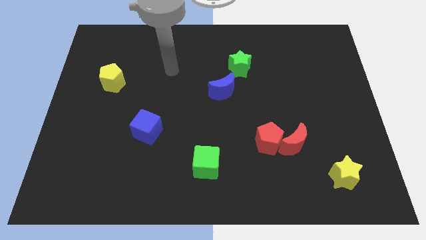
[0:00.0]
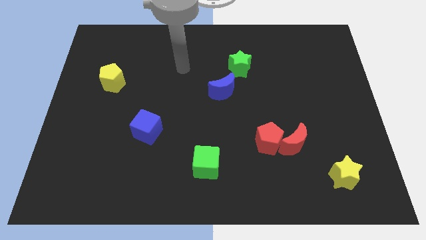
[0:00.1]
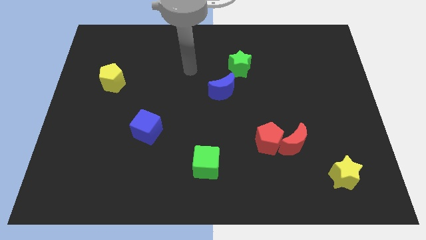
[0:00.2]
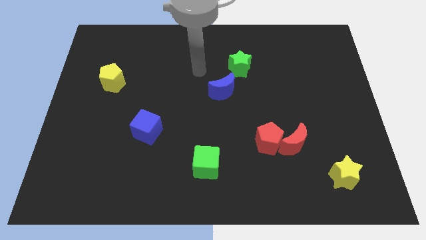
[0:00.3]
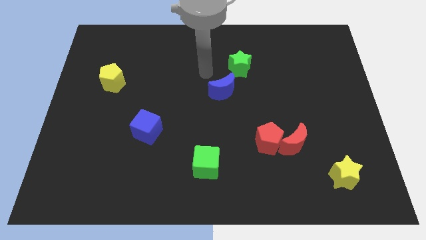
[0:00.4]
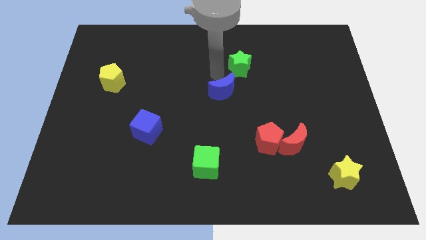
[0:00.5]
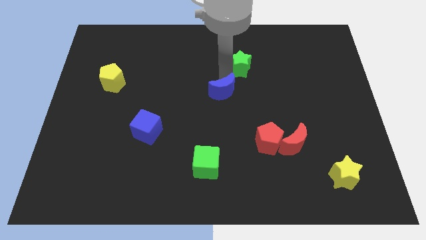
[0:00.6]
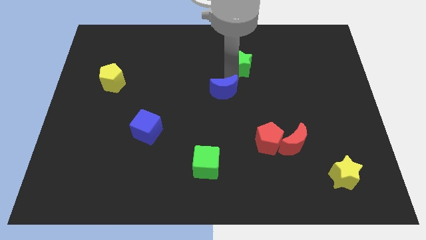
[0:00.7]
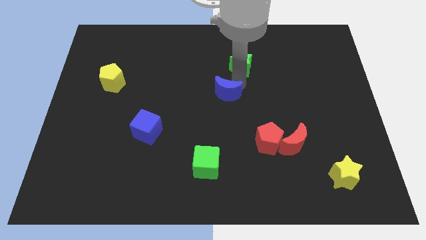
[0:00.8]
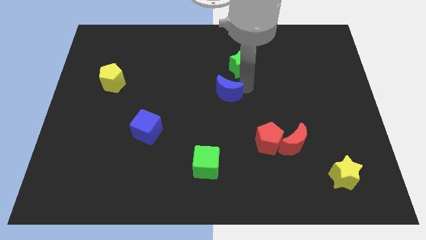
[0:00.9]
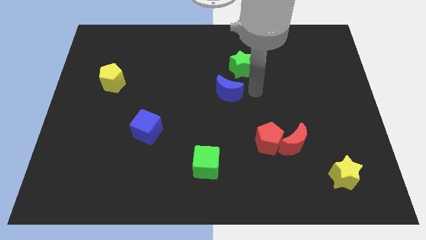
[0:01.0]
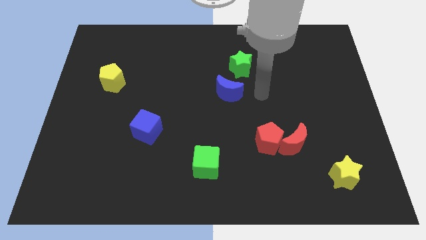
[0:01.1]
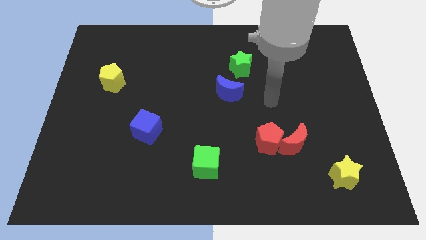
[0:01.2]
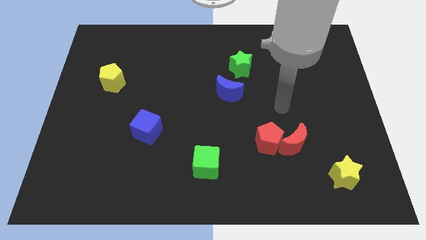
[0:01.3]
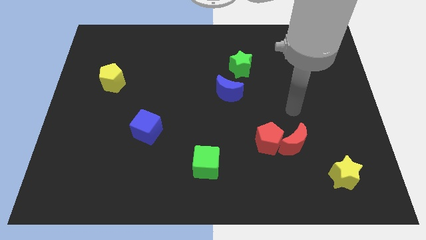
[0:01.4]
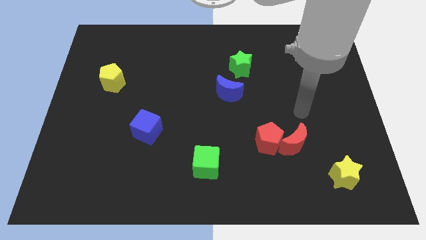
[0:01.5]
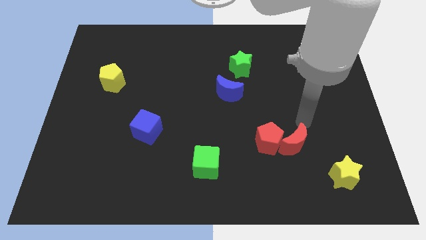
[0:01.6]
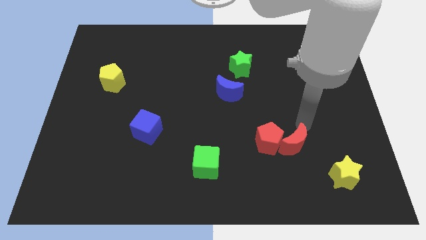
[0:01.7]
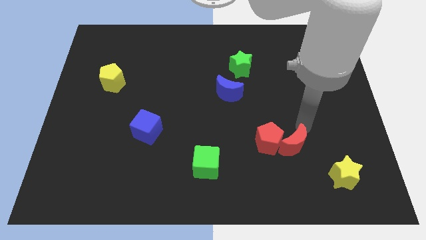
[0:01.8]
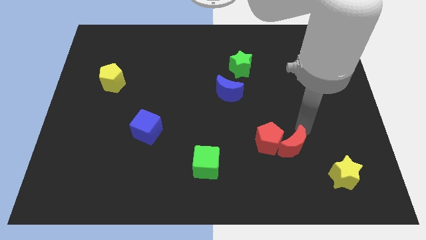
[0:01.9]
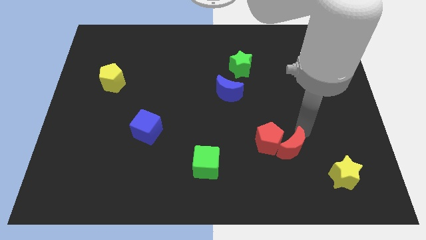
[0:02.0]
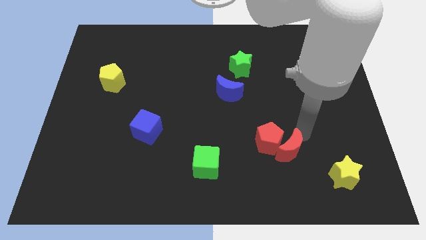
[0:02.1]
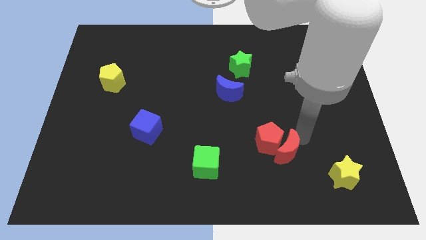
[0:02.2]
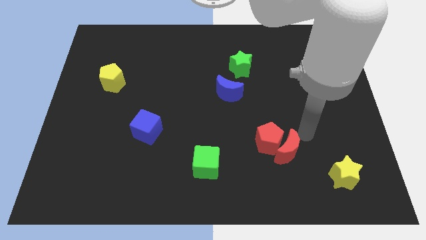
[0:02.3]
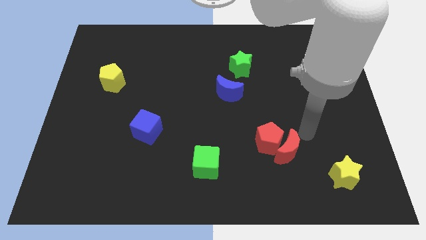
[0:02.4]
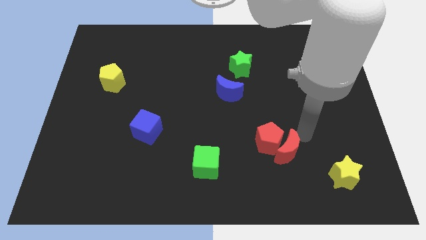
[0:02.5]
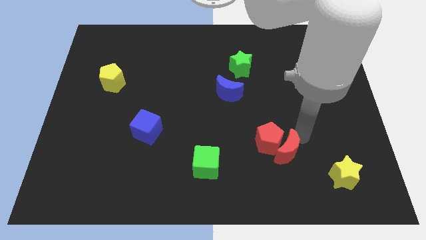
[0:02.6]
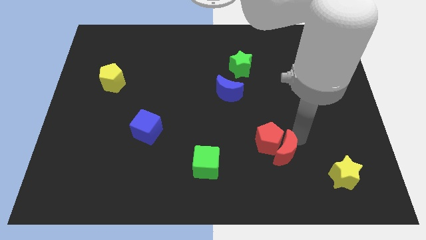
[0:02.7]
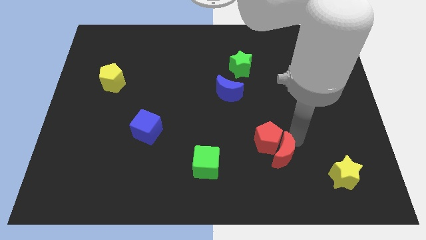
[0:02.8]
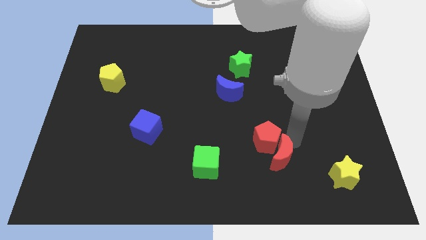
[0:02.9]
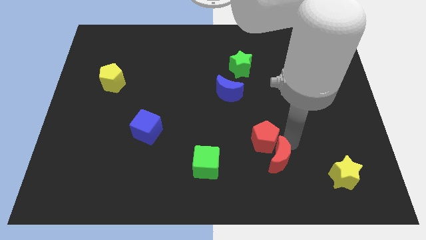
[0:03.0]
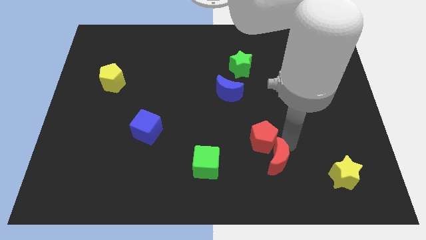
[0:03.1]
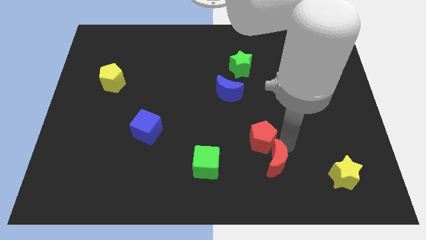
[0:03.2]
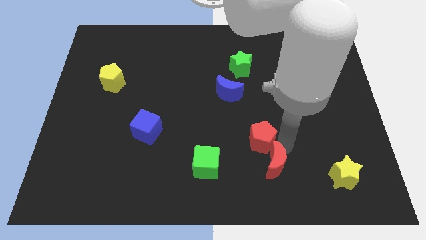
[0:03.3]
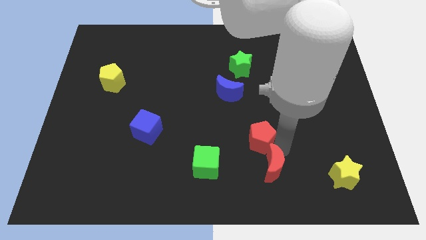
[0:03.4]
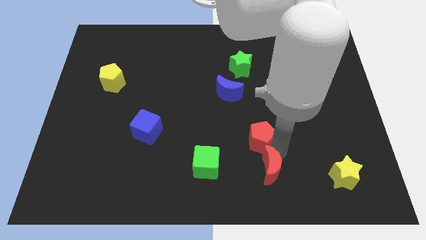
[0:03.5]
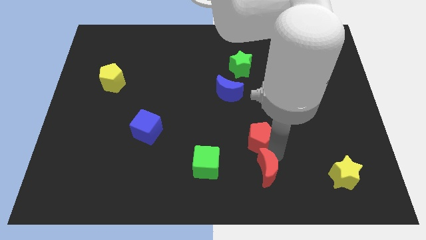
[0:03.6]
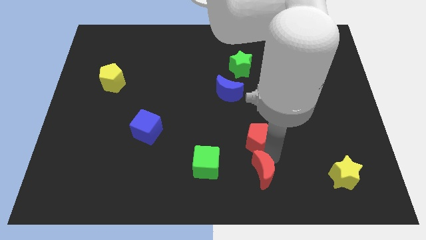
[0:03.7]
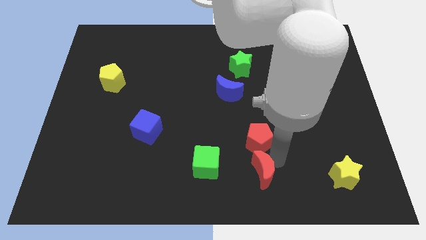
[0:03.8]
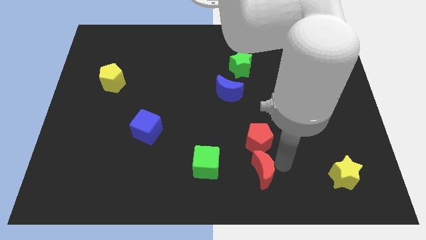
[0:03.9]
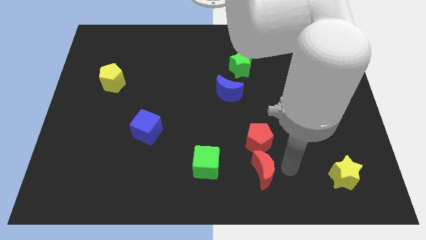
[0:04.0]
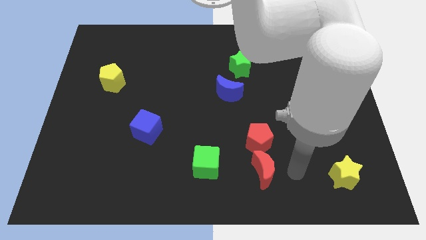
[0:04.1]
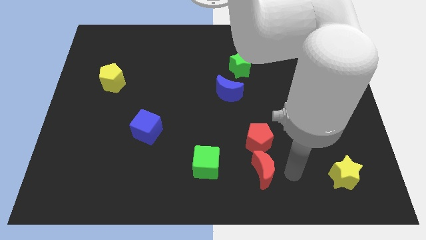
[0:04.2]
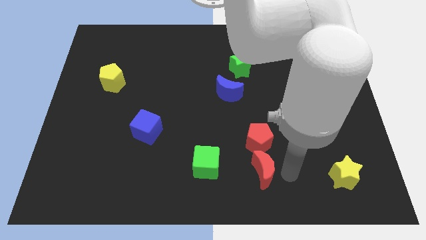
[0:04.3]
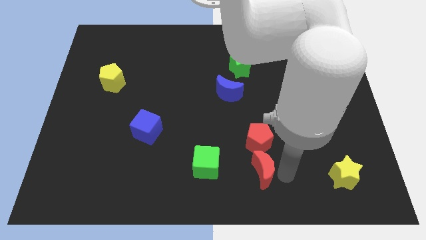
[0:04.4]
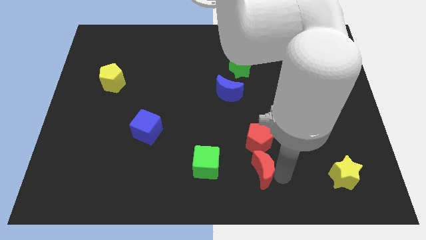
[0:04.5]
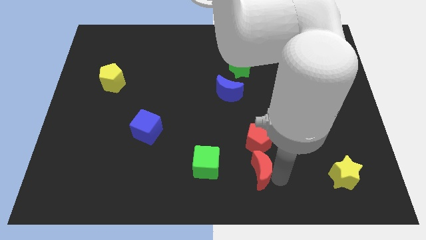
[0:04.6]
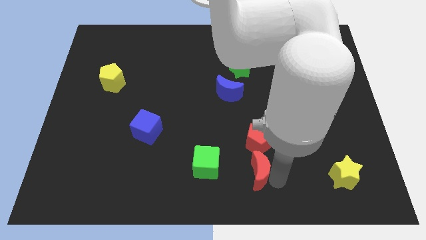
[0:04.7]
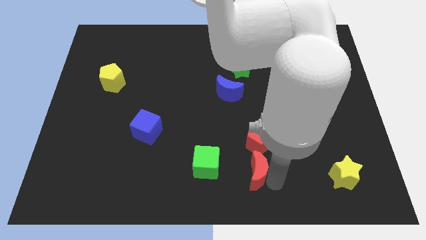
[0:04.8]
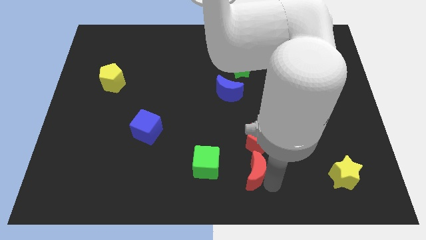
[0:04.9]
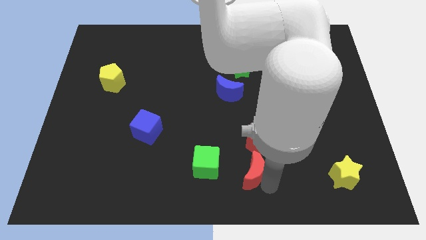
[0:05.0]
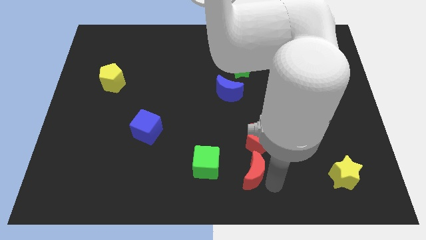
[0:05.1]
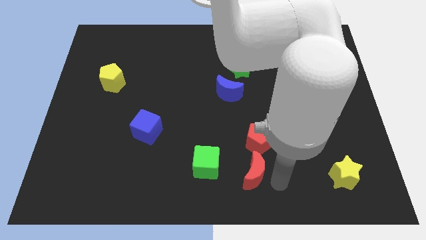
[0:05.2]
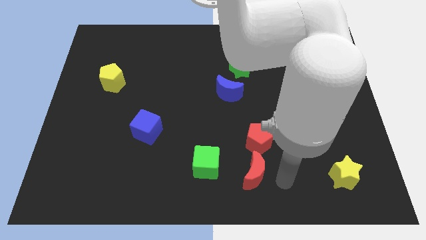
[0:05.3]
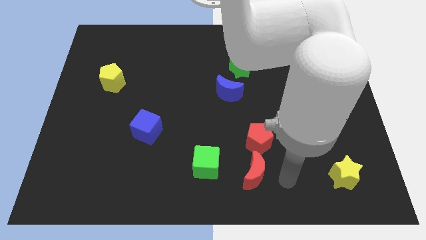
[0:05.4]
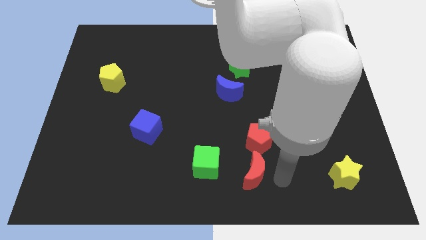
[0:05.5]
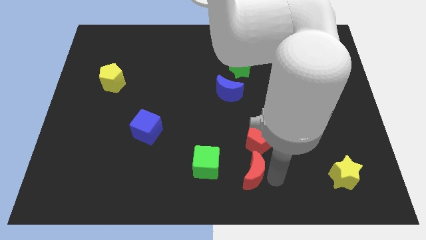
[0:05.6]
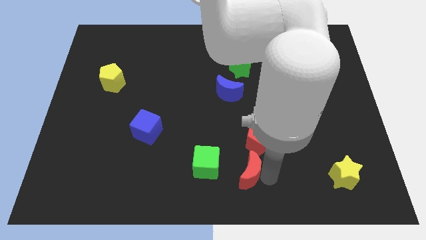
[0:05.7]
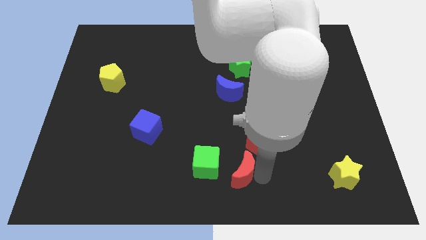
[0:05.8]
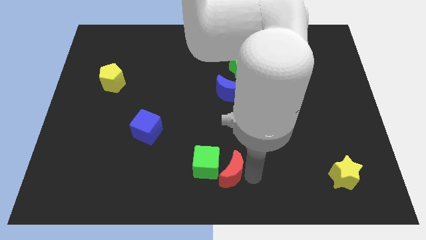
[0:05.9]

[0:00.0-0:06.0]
move the red moon close to the green cube

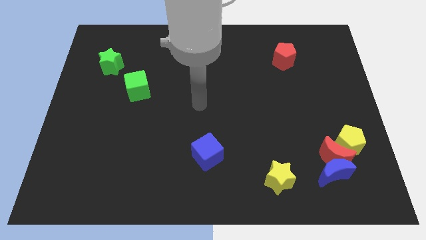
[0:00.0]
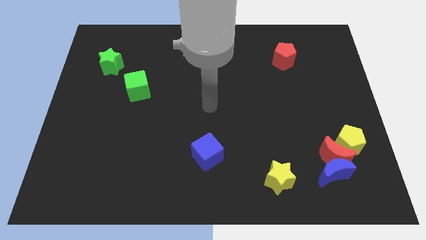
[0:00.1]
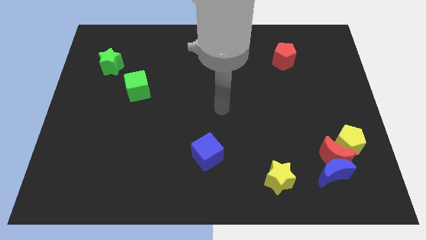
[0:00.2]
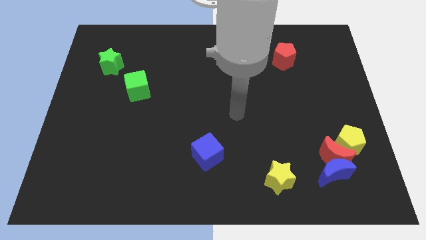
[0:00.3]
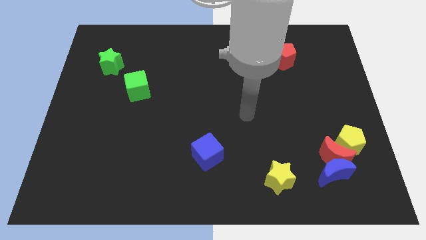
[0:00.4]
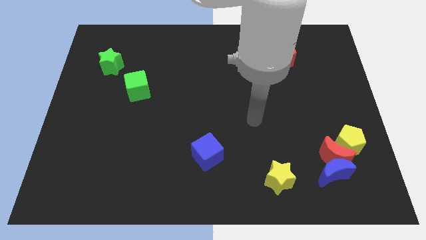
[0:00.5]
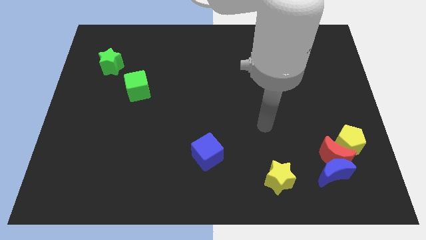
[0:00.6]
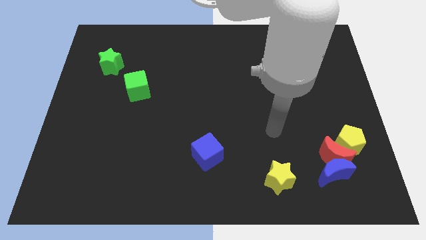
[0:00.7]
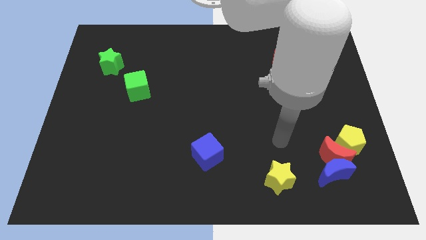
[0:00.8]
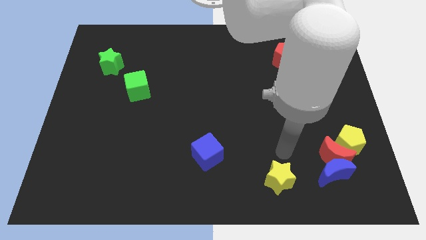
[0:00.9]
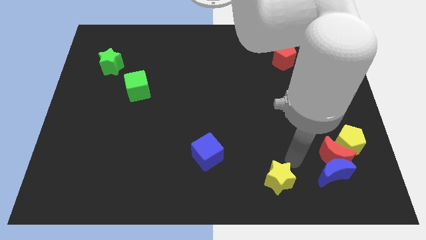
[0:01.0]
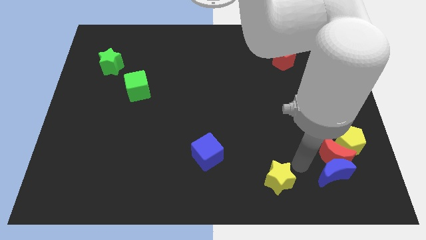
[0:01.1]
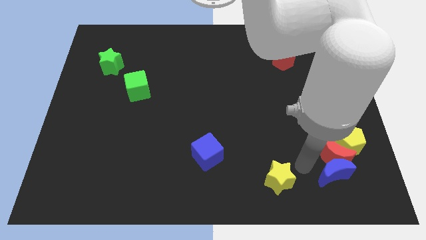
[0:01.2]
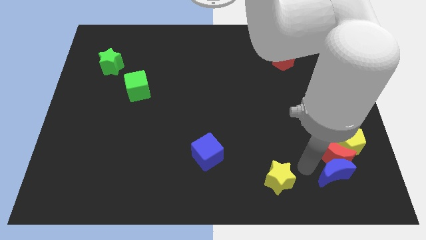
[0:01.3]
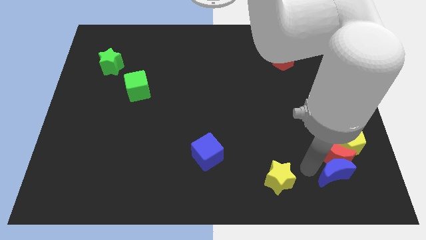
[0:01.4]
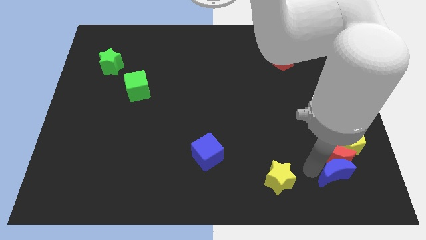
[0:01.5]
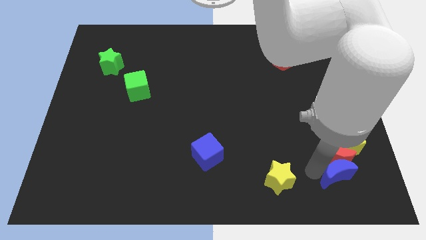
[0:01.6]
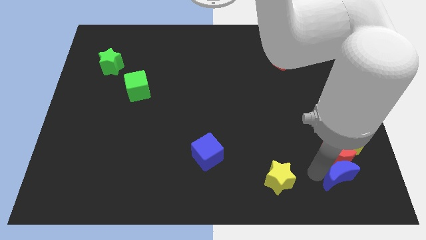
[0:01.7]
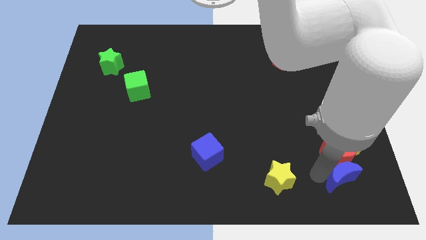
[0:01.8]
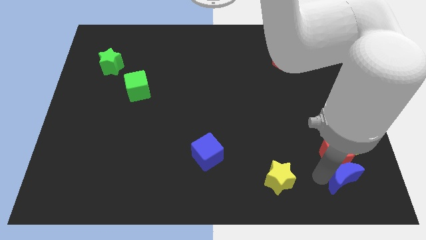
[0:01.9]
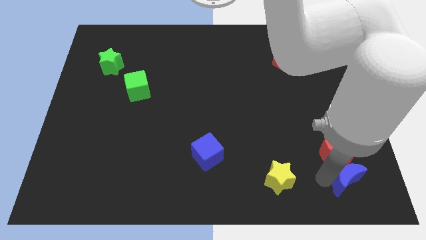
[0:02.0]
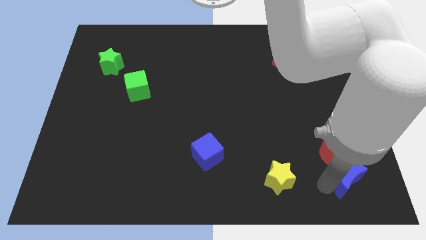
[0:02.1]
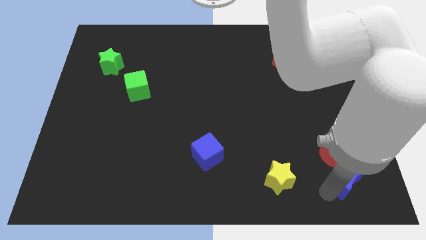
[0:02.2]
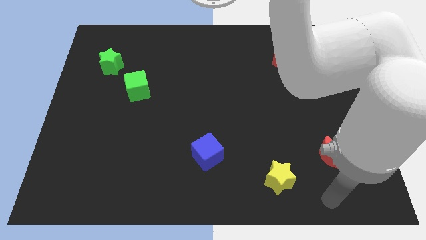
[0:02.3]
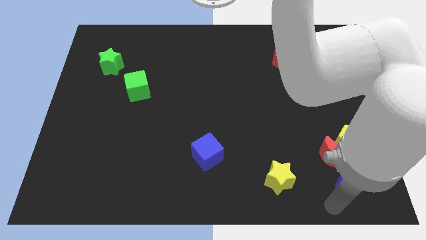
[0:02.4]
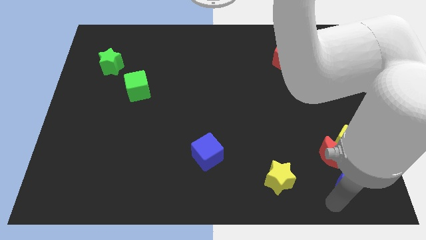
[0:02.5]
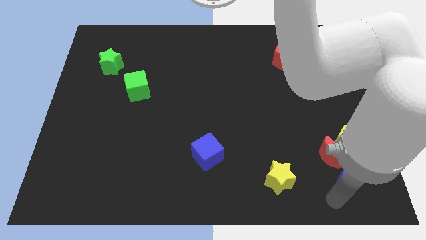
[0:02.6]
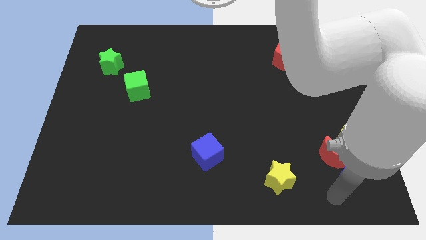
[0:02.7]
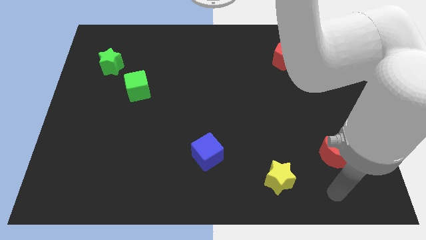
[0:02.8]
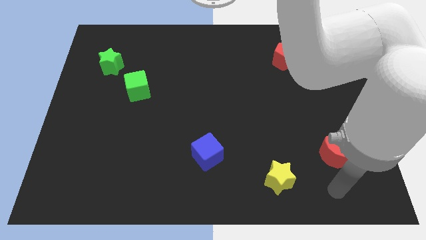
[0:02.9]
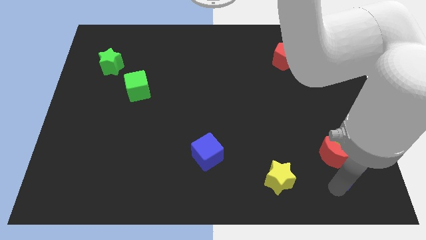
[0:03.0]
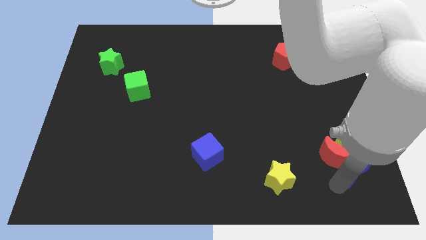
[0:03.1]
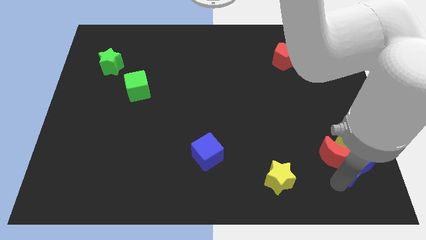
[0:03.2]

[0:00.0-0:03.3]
push the blue moon to the yellow pentagon
